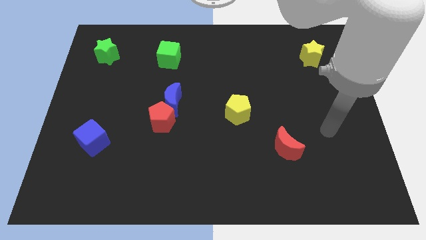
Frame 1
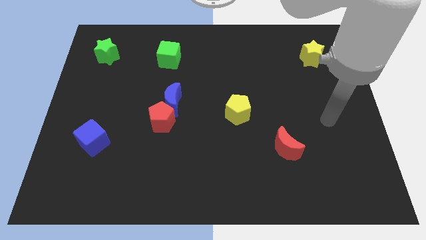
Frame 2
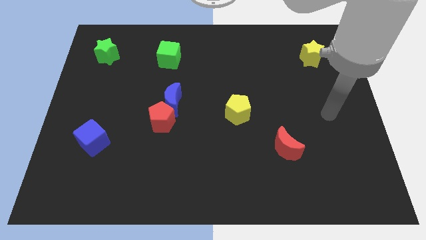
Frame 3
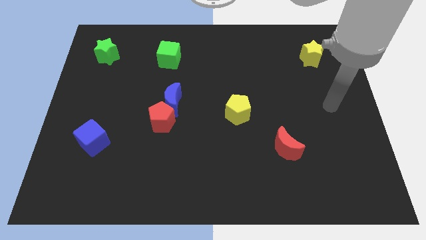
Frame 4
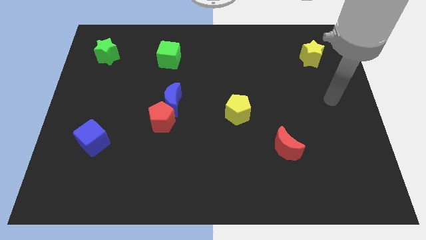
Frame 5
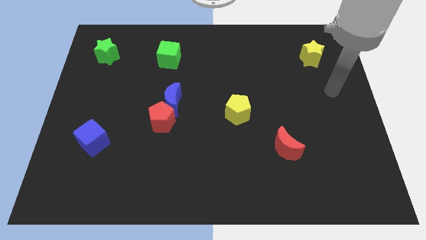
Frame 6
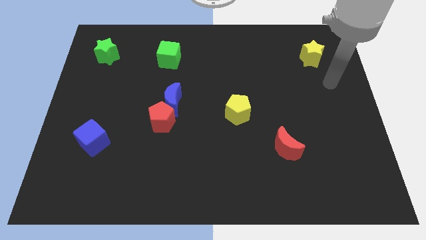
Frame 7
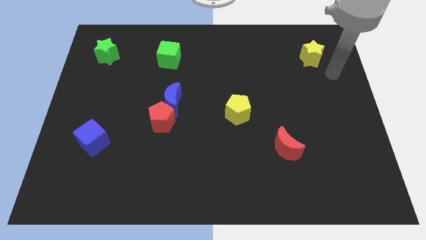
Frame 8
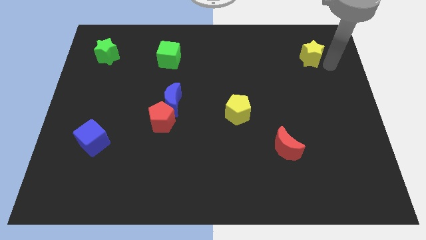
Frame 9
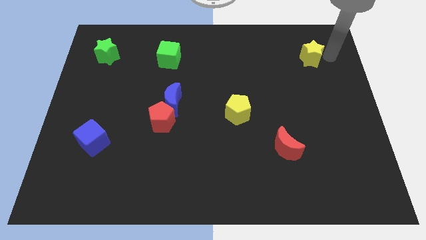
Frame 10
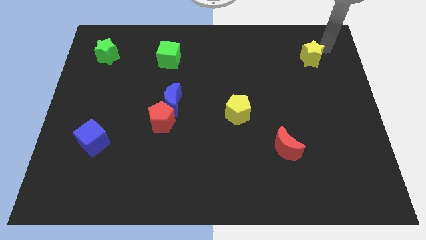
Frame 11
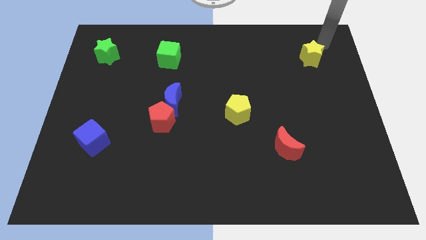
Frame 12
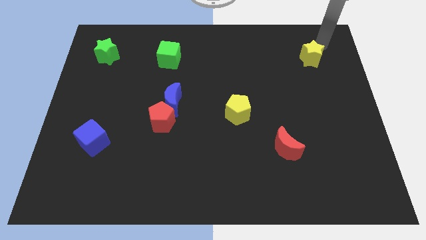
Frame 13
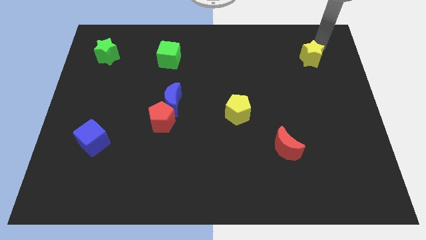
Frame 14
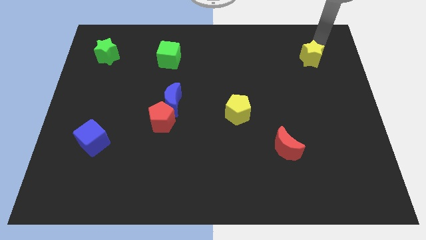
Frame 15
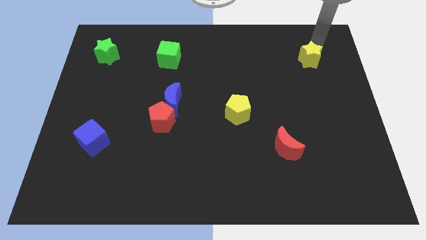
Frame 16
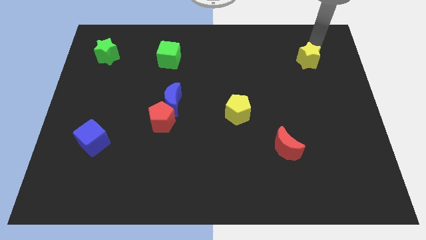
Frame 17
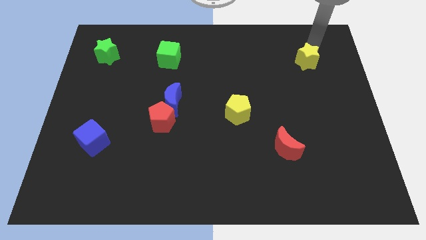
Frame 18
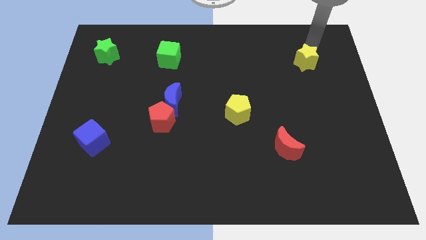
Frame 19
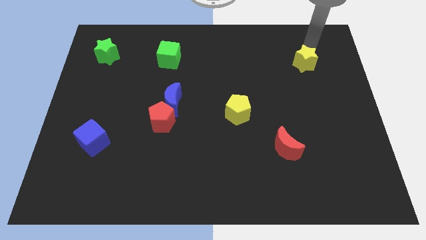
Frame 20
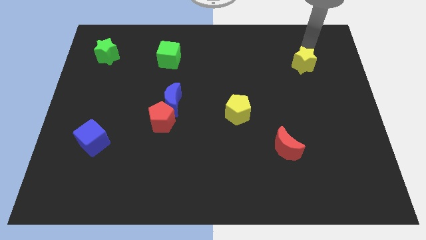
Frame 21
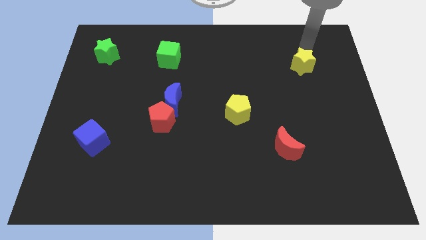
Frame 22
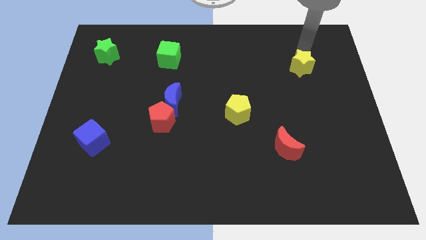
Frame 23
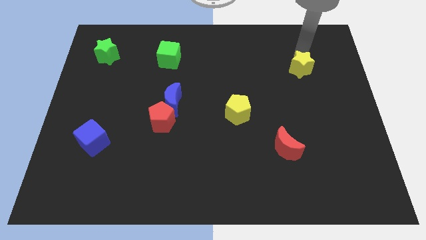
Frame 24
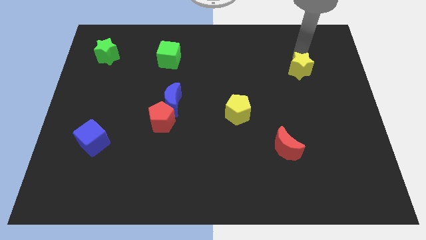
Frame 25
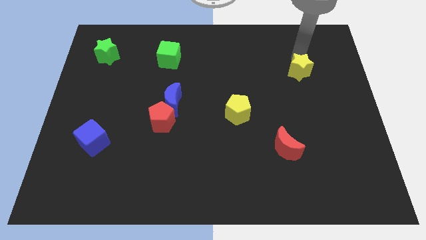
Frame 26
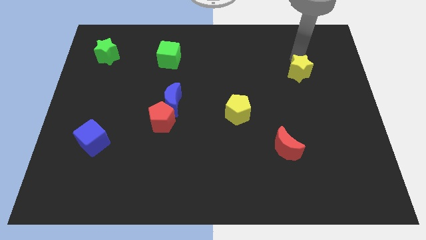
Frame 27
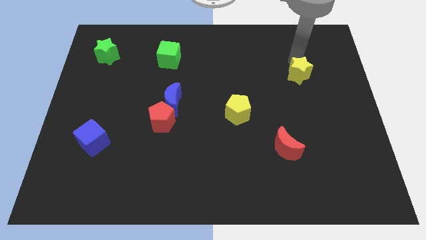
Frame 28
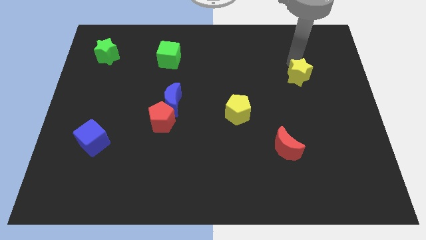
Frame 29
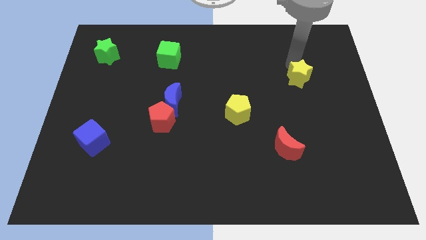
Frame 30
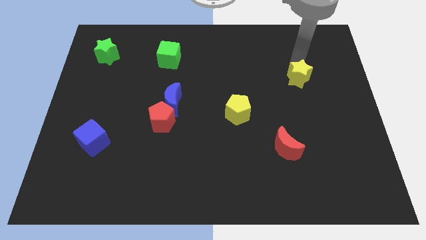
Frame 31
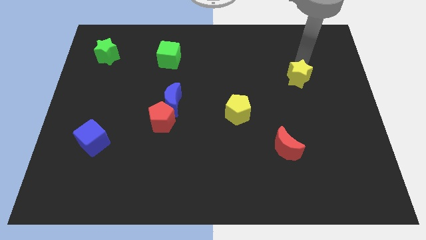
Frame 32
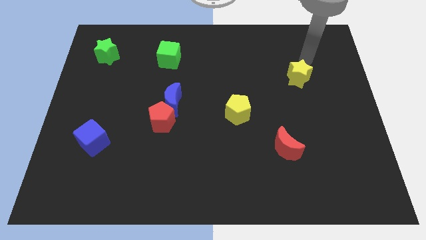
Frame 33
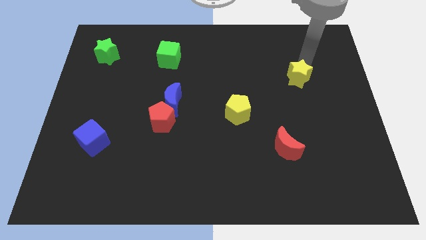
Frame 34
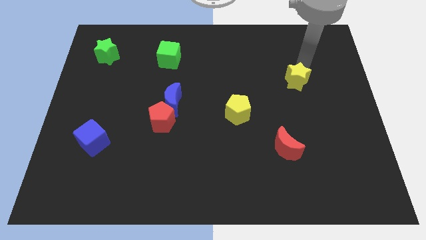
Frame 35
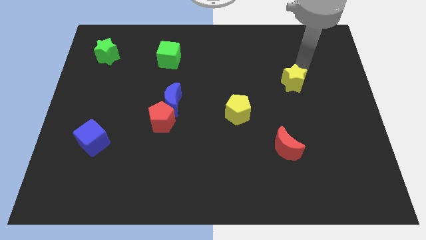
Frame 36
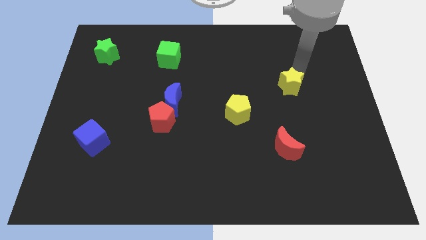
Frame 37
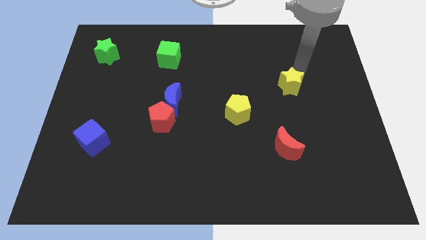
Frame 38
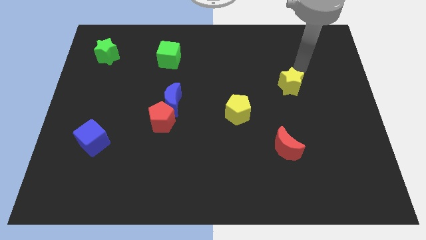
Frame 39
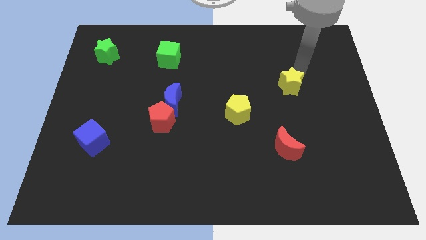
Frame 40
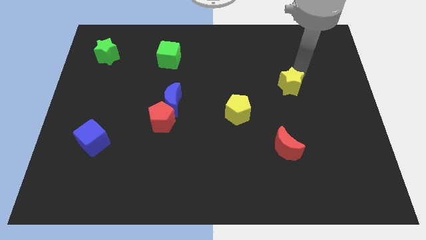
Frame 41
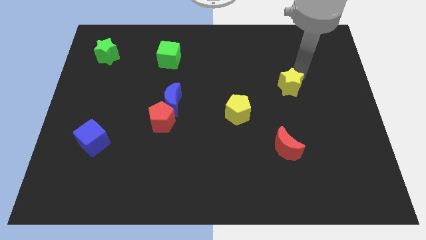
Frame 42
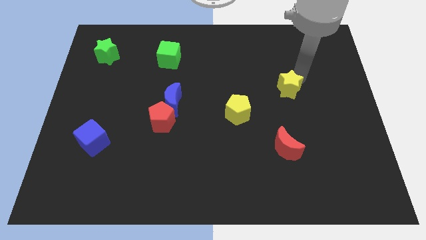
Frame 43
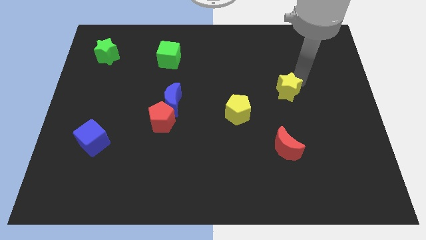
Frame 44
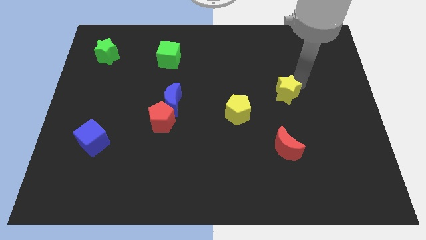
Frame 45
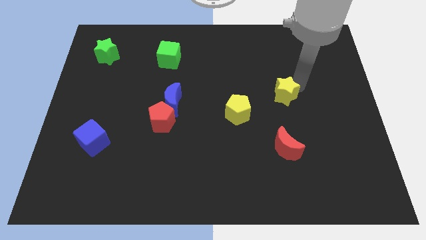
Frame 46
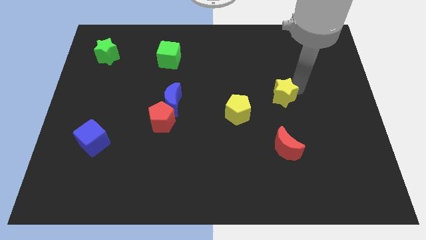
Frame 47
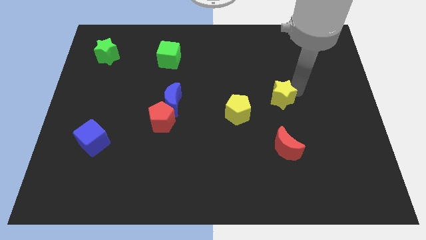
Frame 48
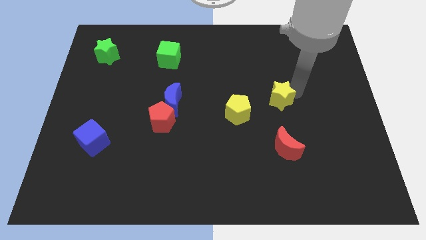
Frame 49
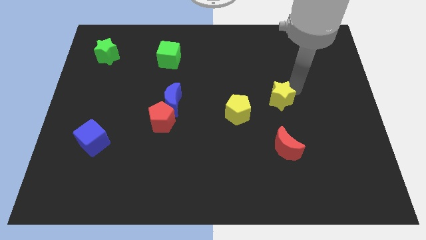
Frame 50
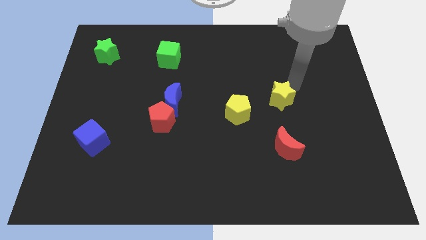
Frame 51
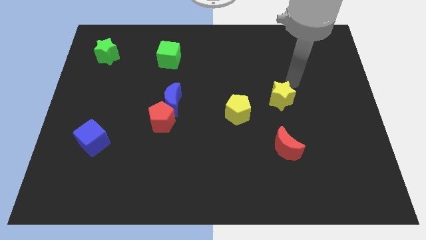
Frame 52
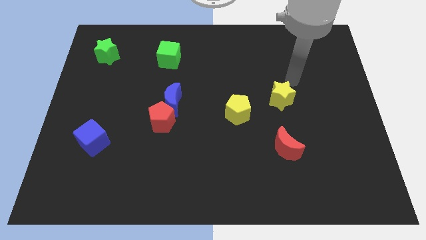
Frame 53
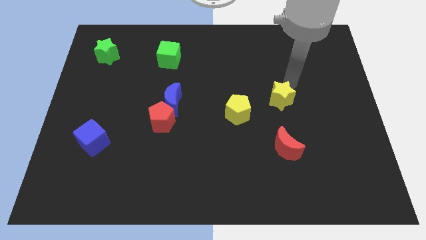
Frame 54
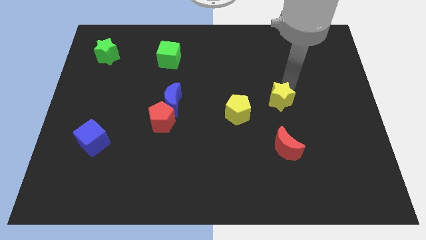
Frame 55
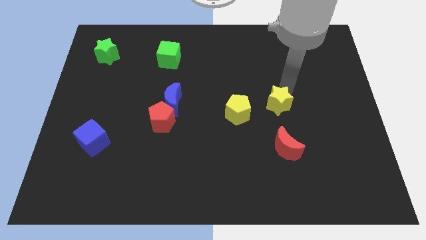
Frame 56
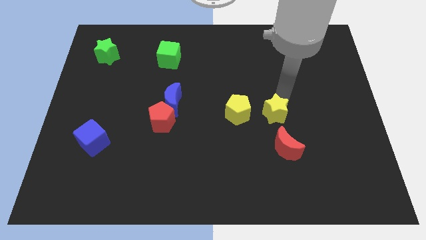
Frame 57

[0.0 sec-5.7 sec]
slide the yellow star downwards and then left

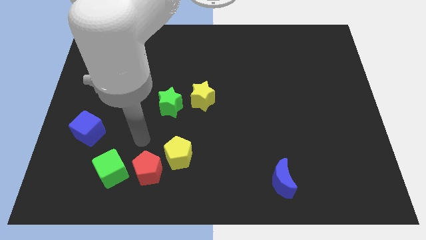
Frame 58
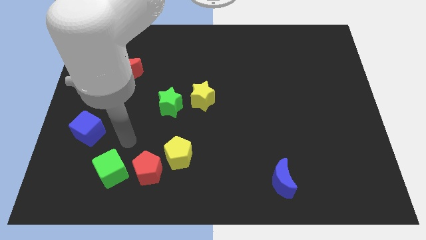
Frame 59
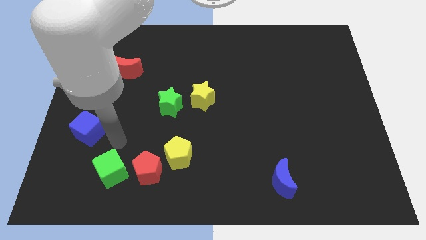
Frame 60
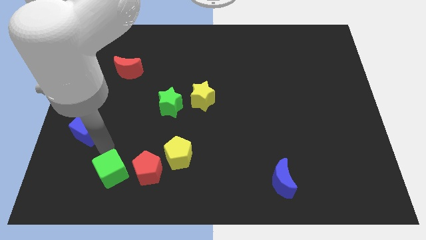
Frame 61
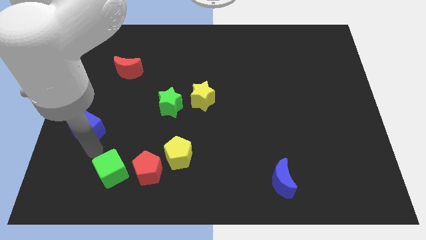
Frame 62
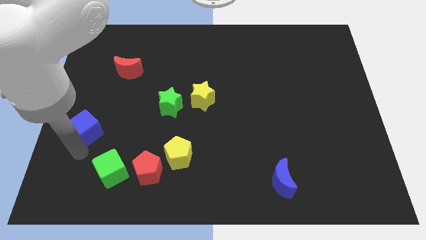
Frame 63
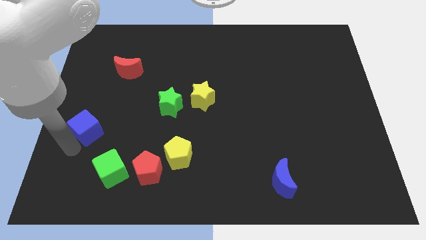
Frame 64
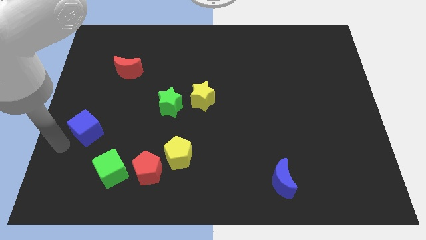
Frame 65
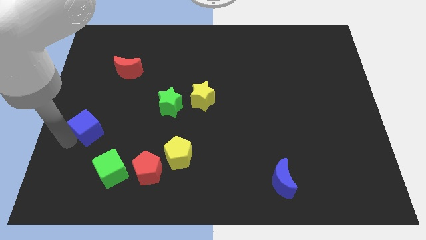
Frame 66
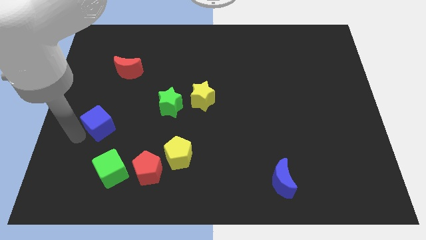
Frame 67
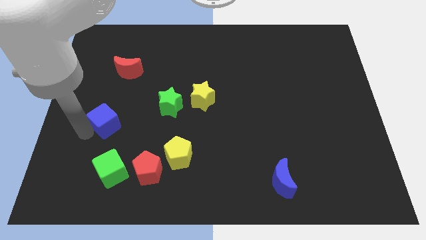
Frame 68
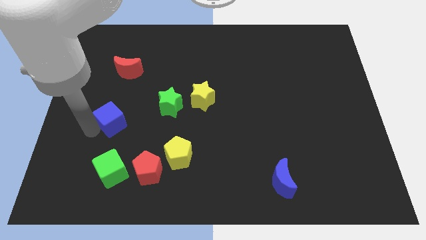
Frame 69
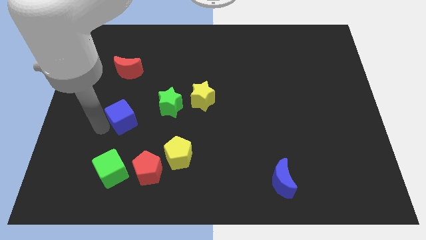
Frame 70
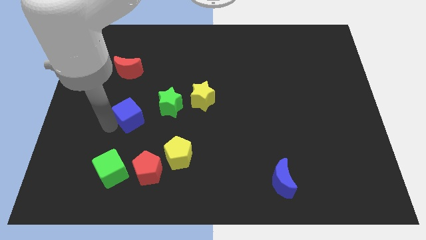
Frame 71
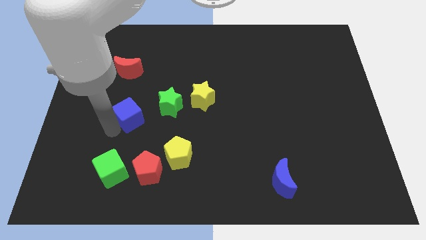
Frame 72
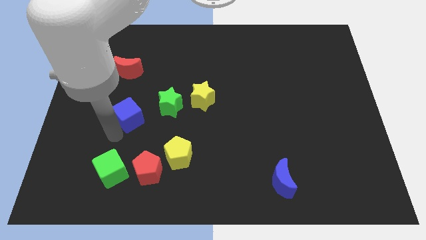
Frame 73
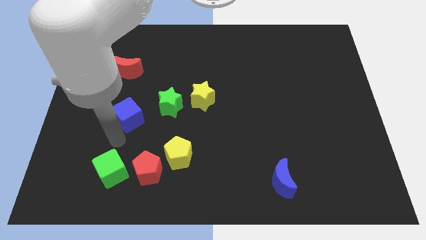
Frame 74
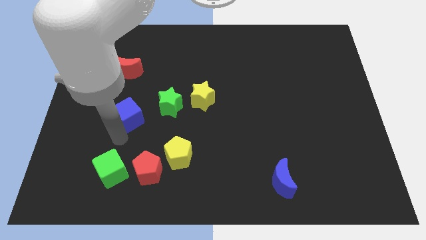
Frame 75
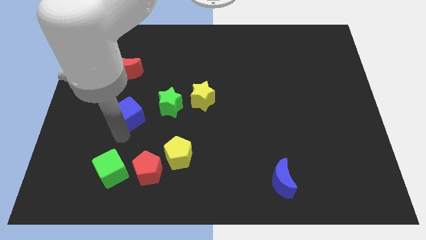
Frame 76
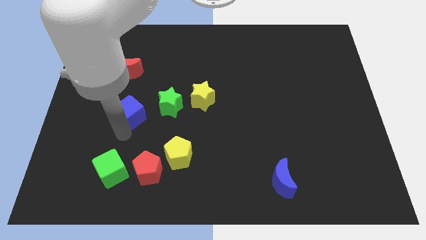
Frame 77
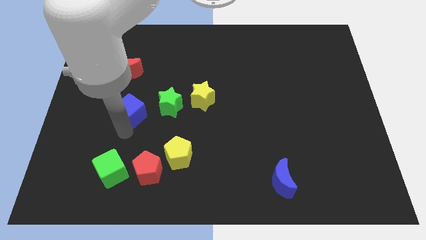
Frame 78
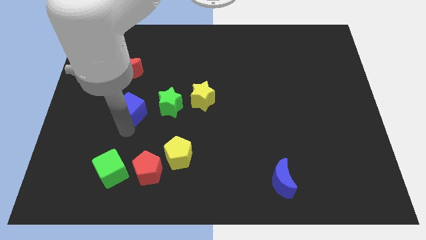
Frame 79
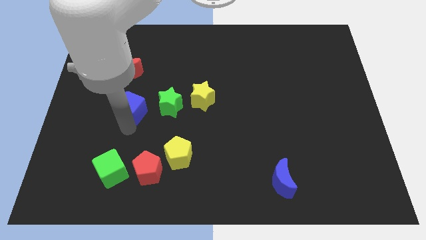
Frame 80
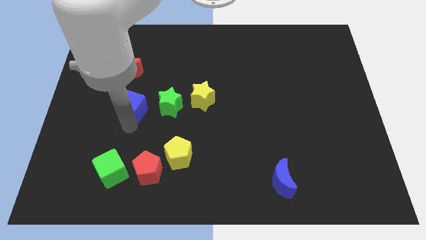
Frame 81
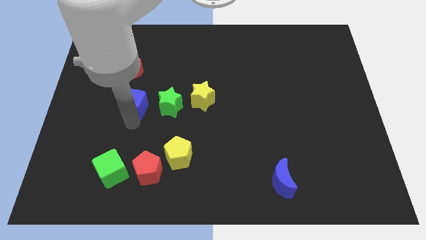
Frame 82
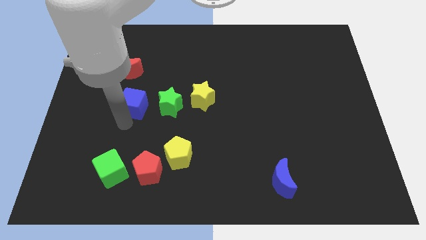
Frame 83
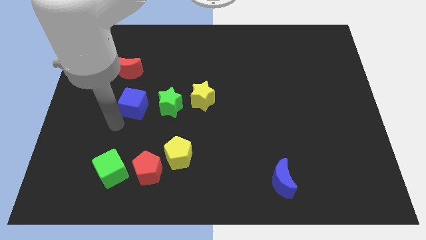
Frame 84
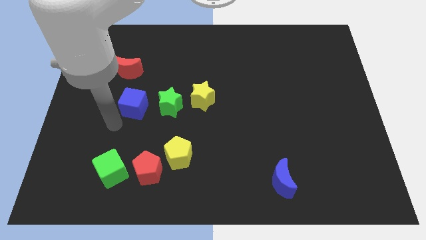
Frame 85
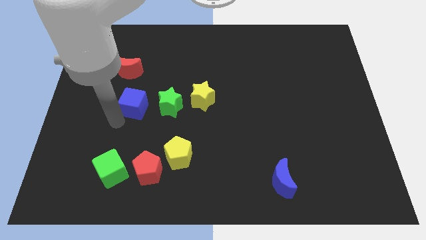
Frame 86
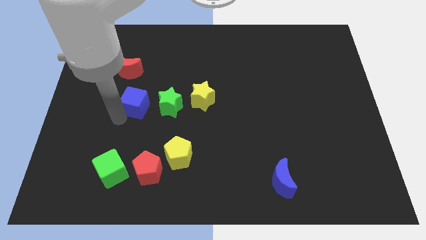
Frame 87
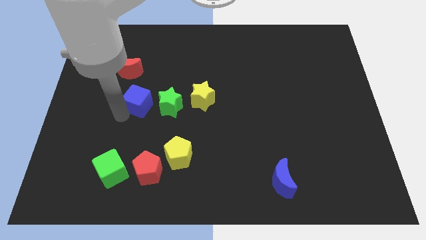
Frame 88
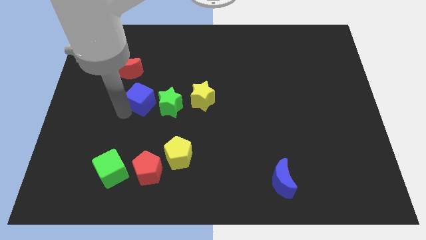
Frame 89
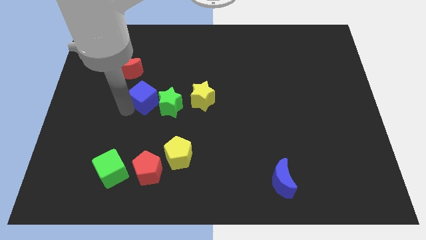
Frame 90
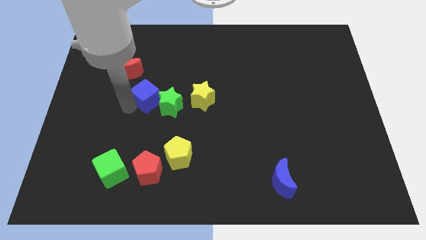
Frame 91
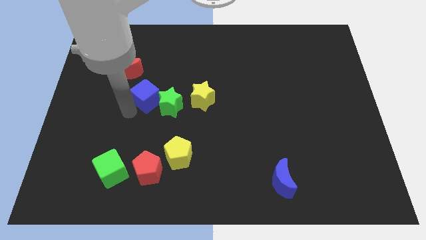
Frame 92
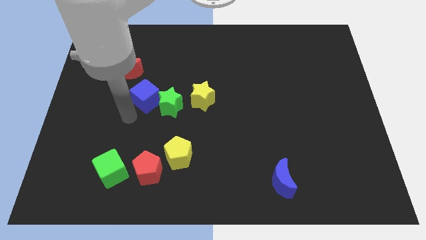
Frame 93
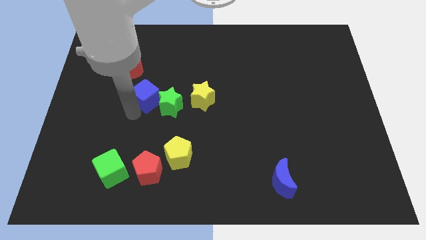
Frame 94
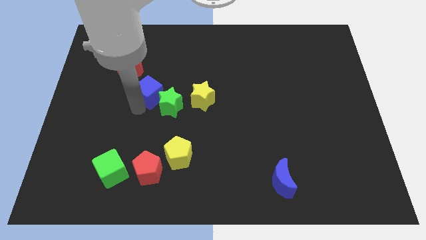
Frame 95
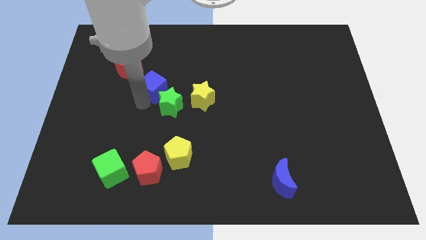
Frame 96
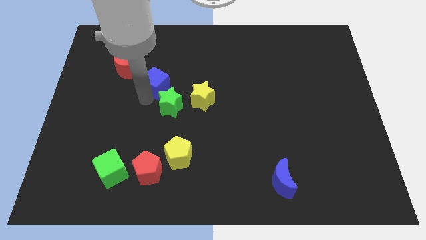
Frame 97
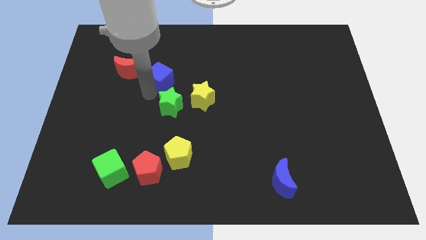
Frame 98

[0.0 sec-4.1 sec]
move the blue cube up and right diagonally
